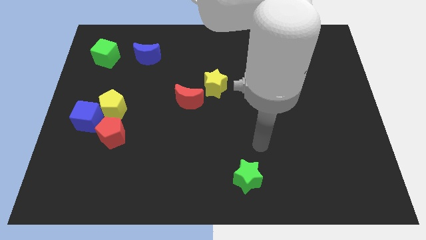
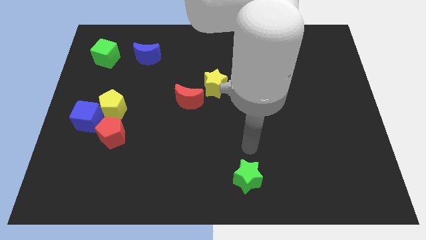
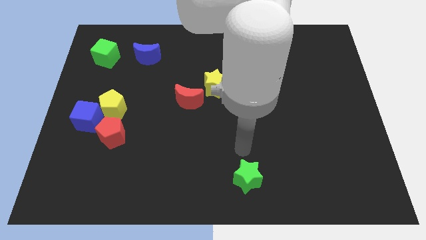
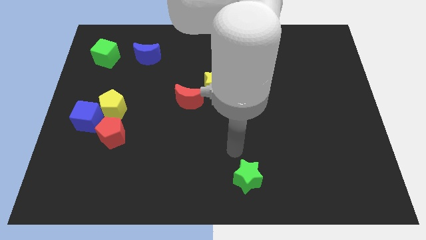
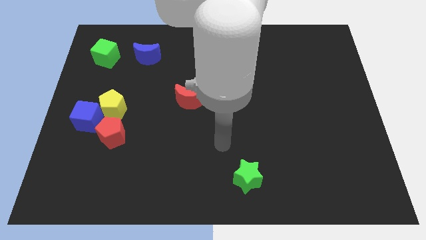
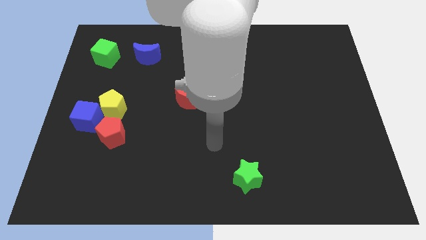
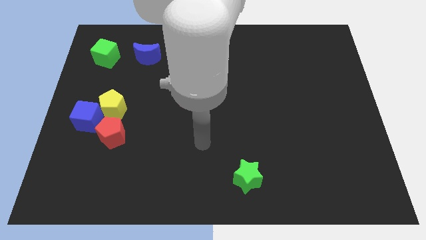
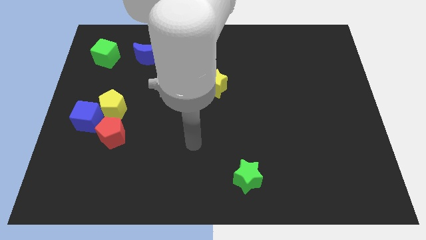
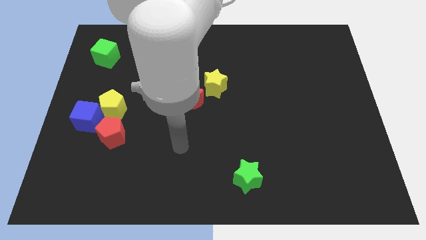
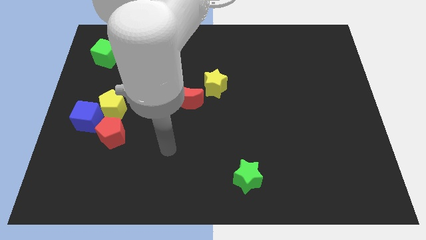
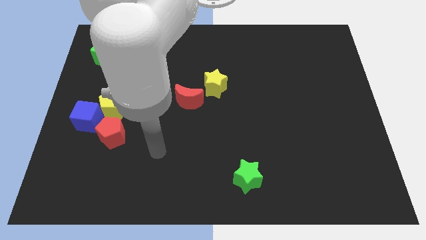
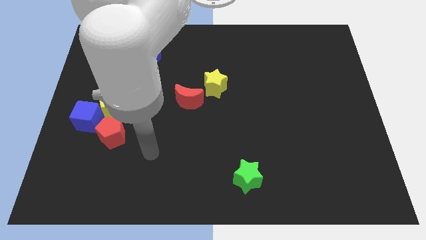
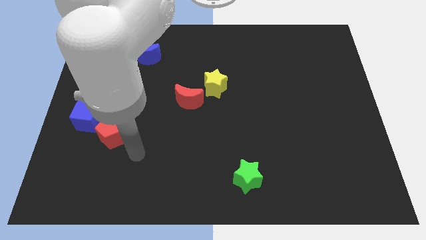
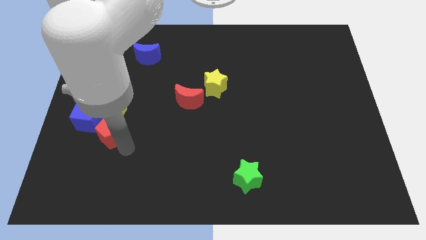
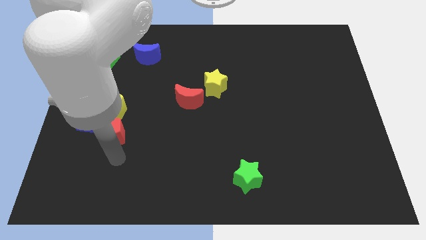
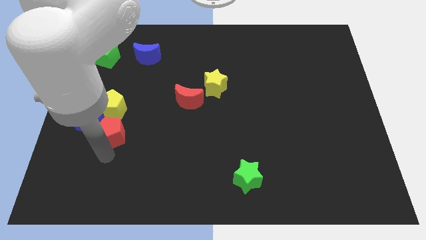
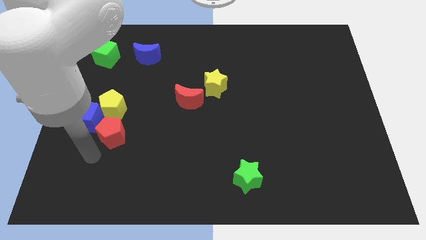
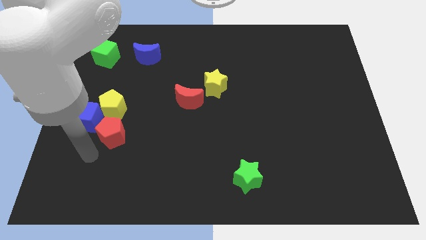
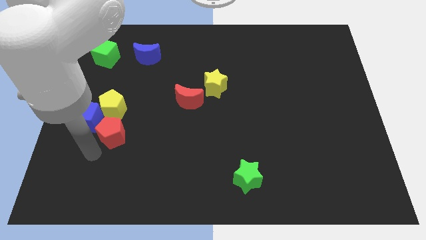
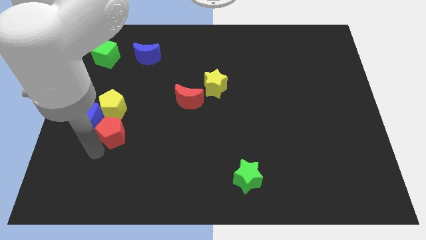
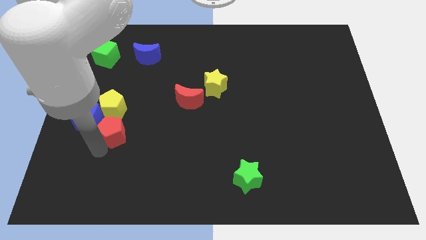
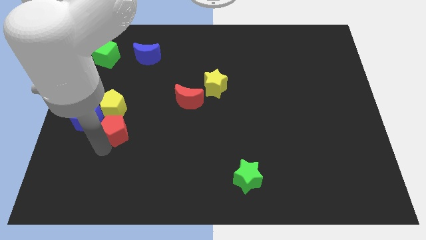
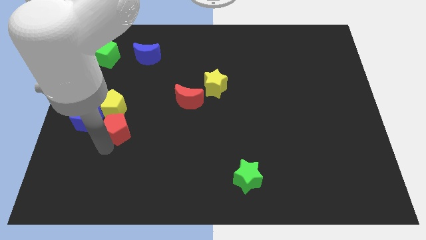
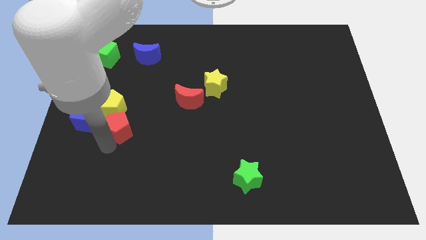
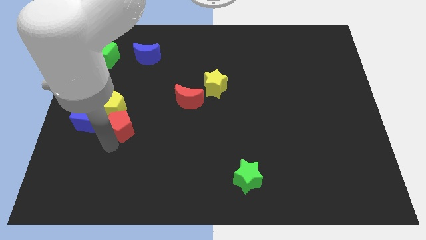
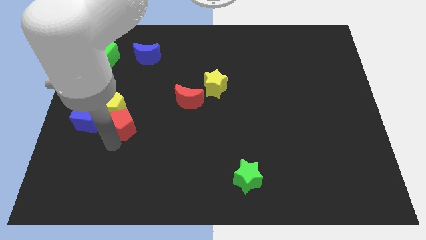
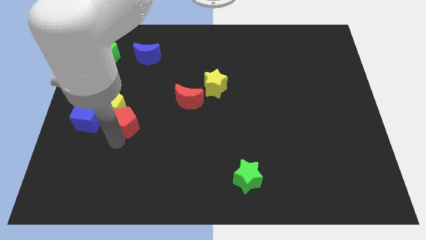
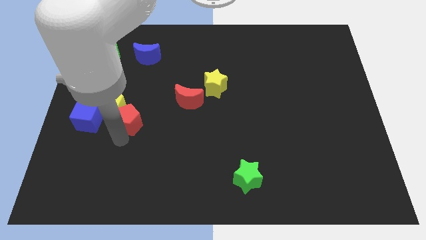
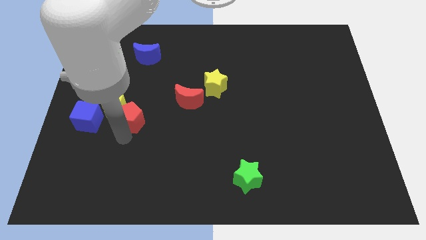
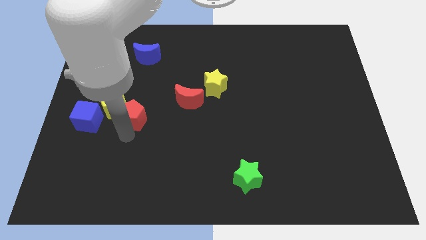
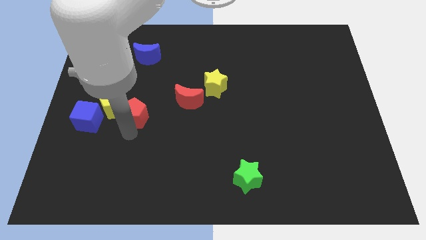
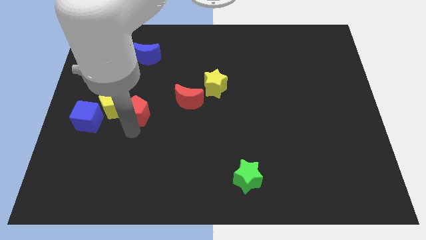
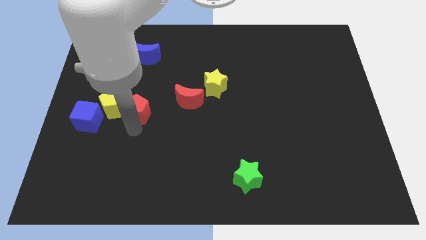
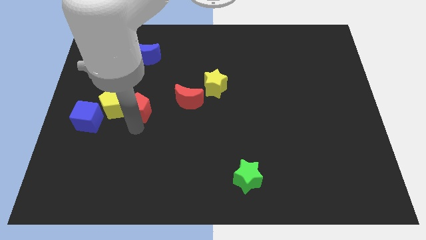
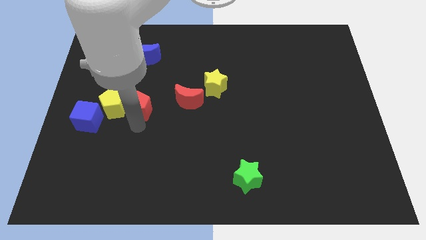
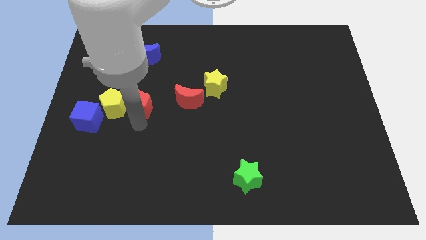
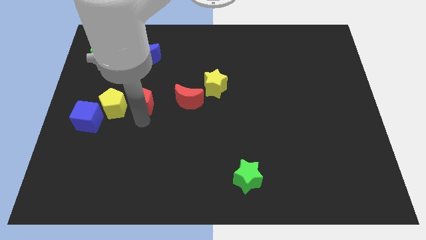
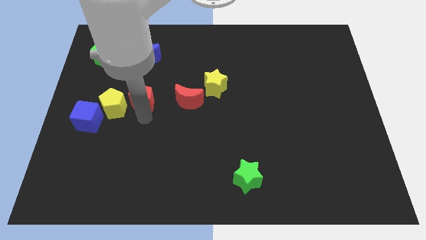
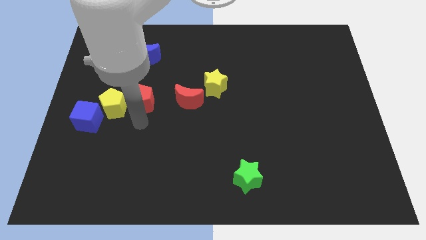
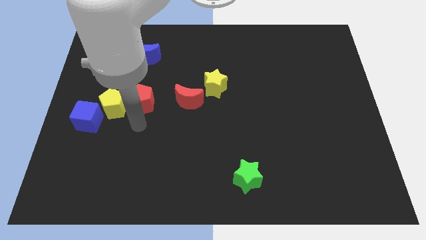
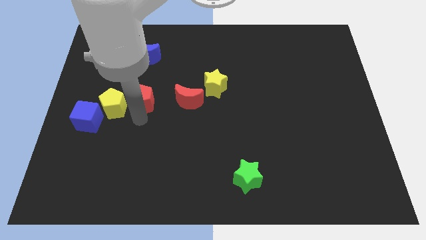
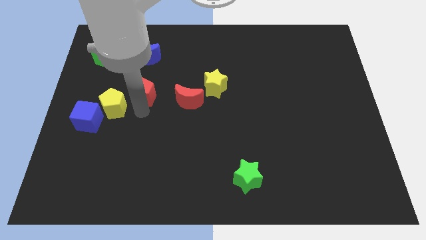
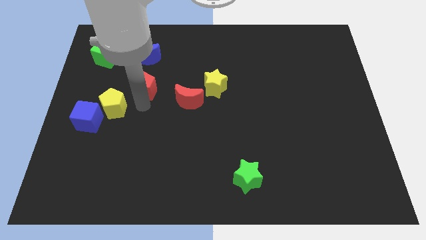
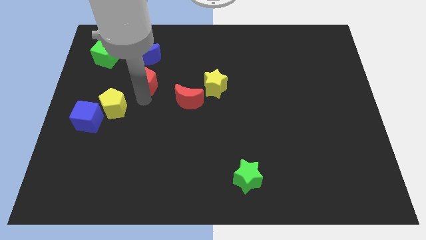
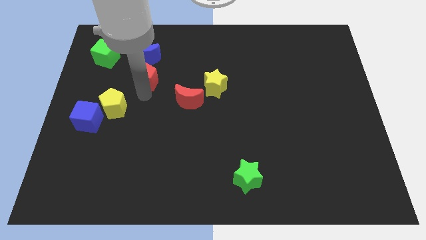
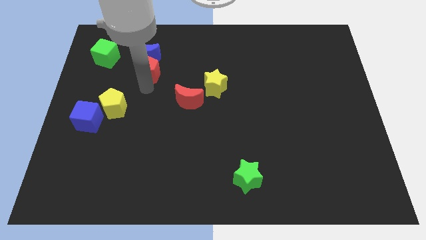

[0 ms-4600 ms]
slide the red pentagon next to the blue moon

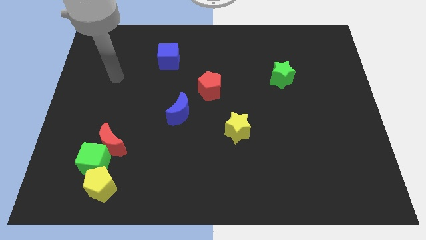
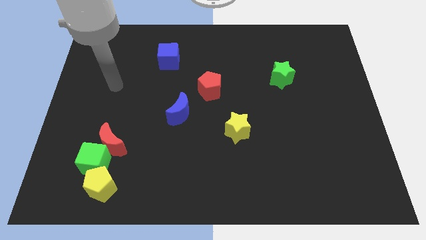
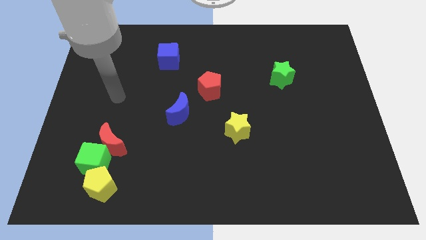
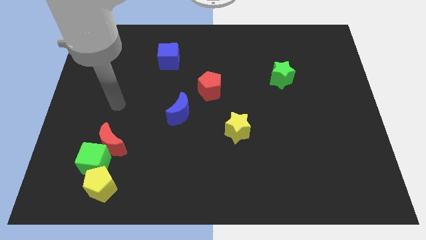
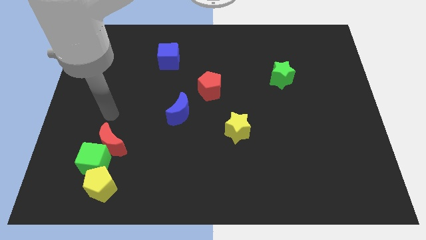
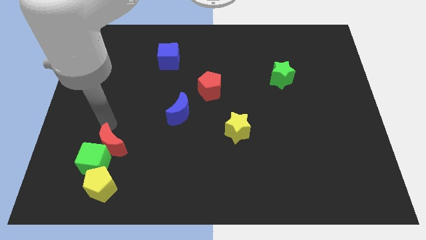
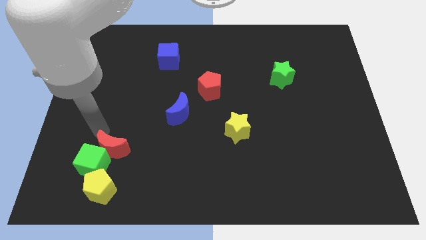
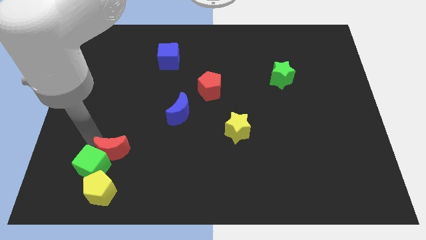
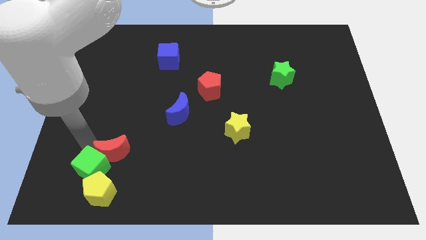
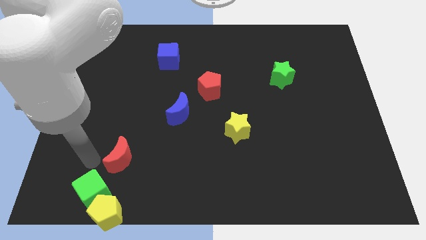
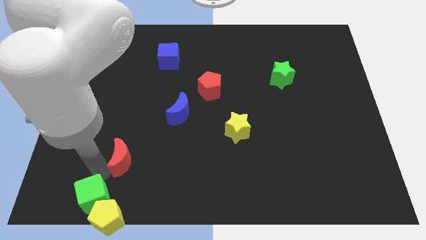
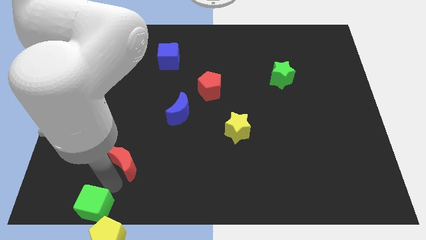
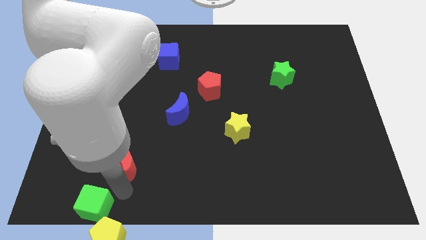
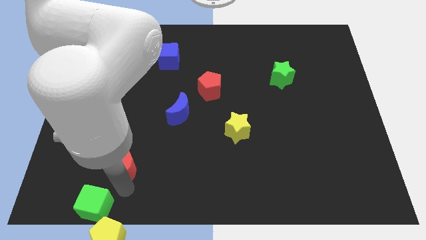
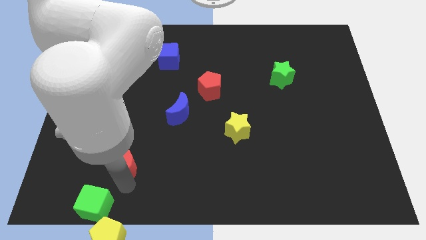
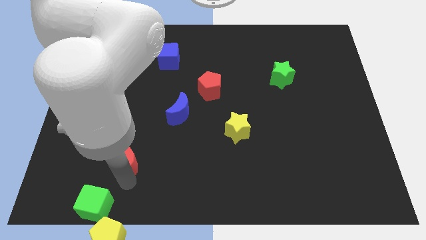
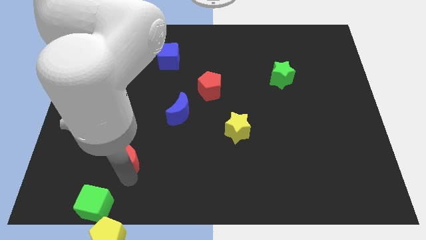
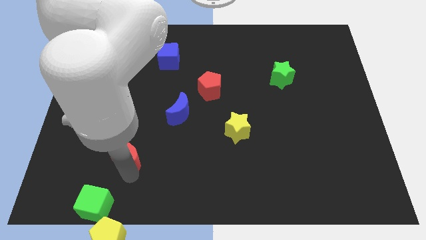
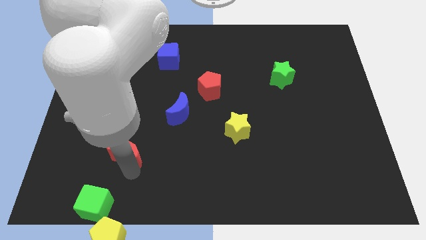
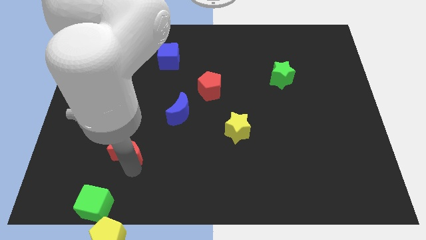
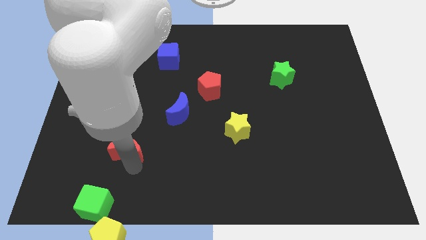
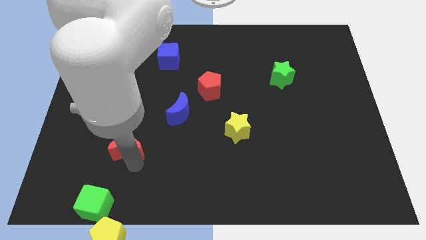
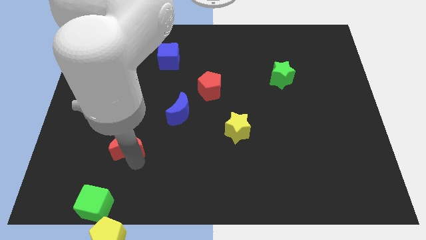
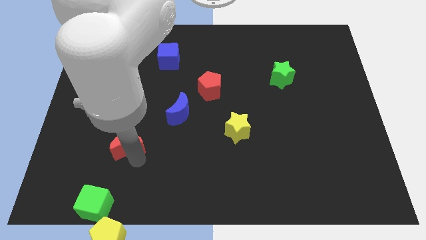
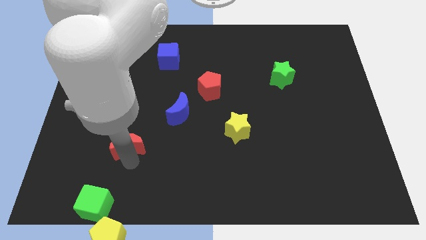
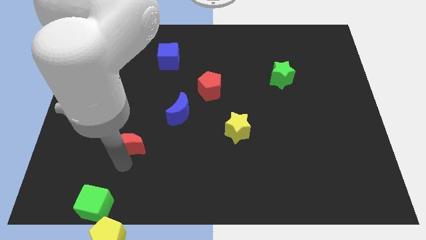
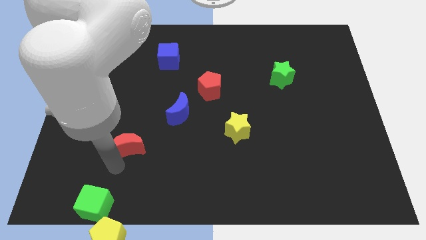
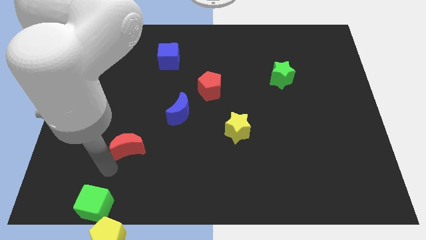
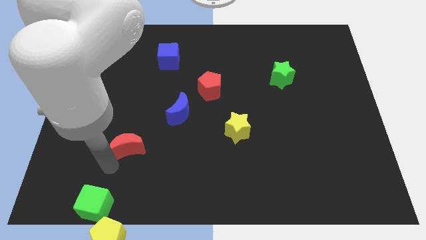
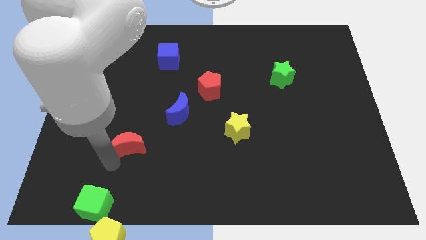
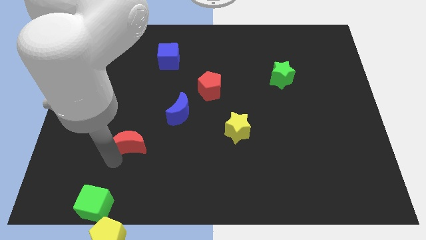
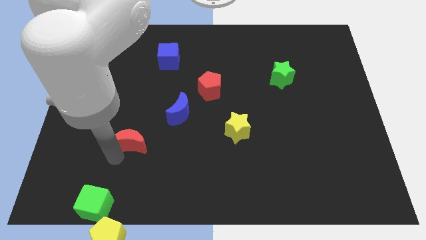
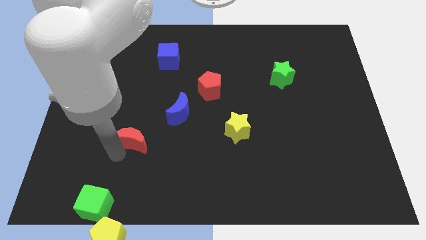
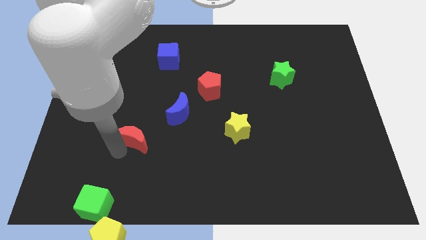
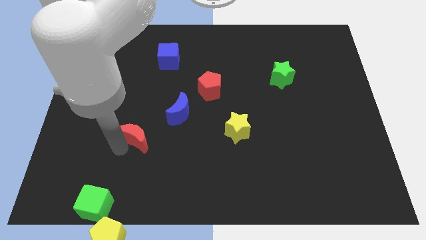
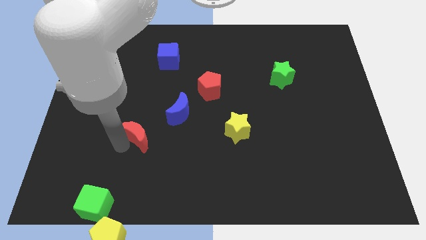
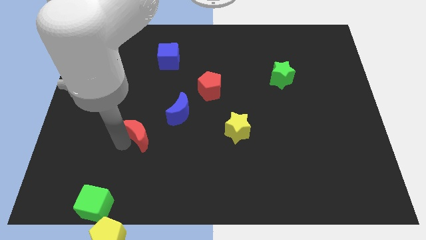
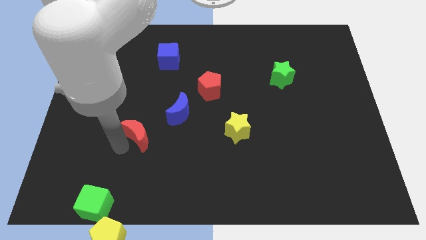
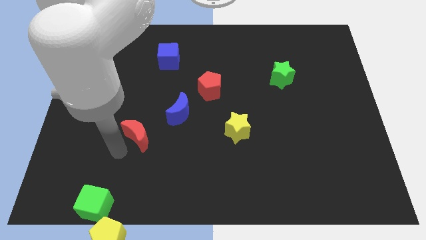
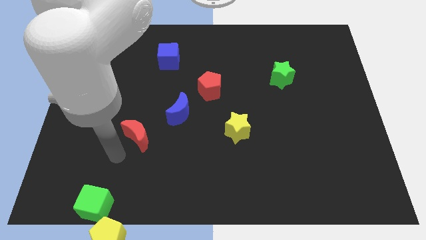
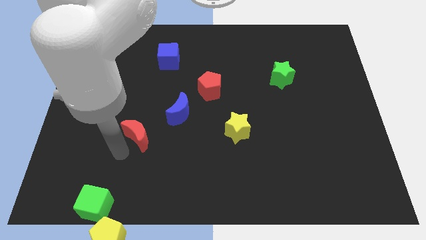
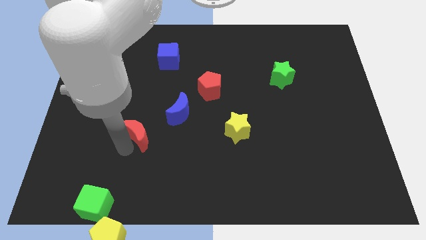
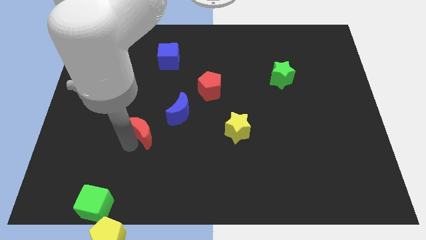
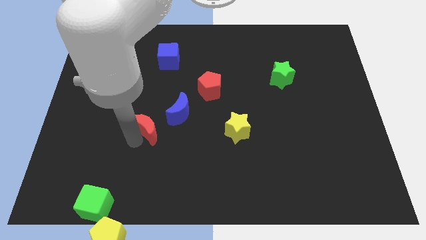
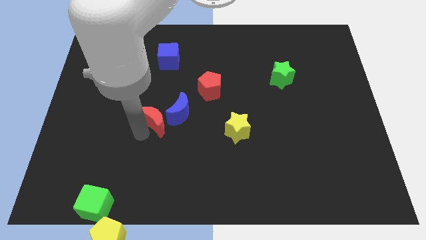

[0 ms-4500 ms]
move the red moon close to the blue moon
